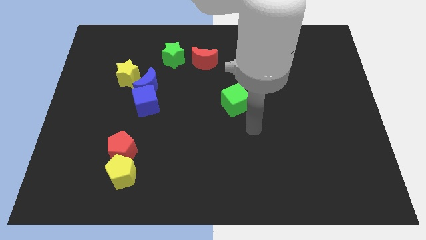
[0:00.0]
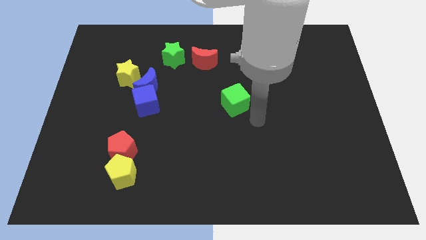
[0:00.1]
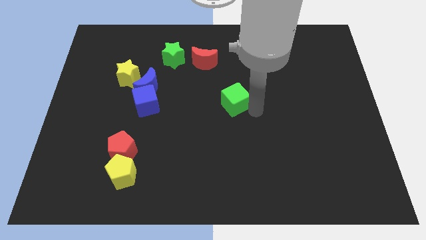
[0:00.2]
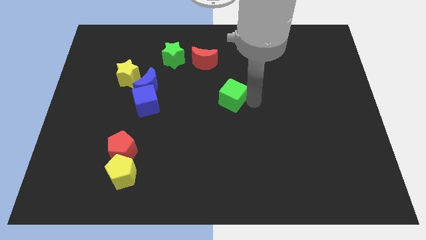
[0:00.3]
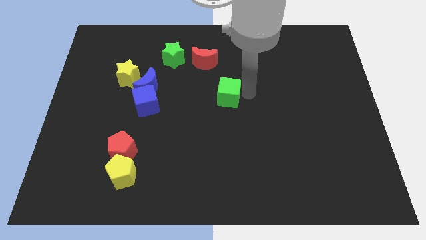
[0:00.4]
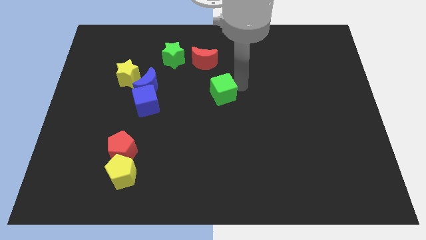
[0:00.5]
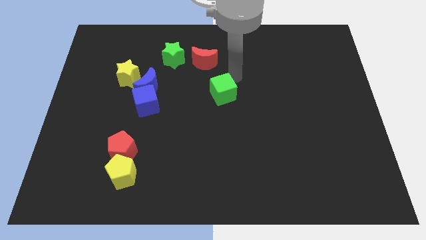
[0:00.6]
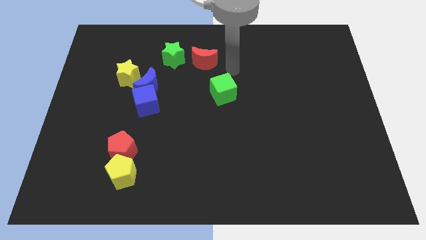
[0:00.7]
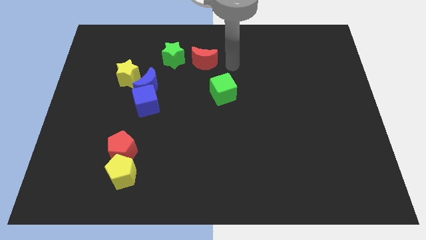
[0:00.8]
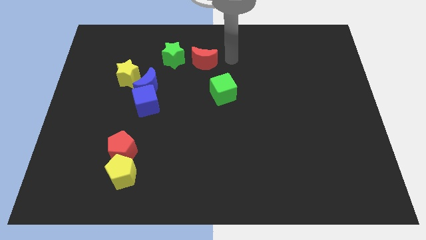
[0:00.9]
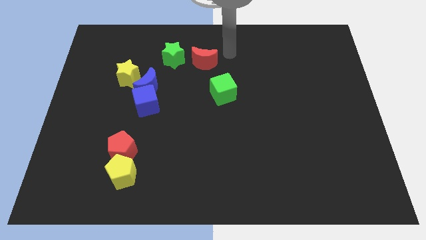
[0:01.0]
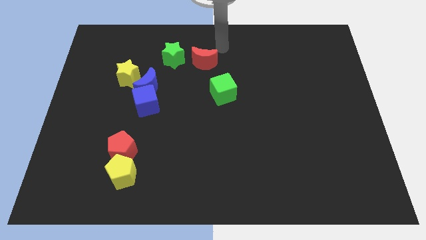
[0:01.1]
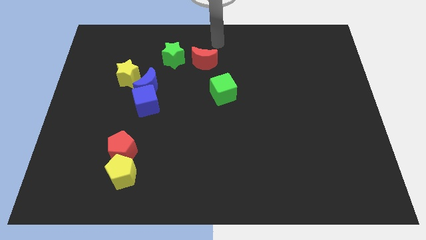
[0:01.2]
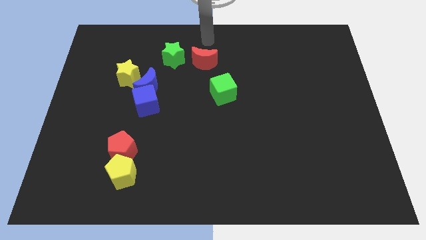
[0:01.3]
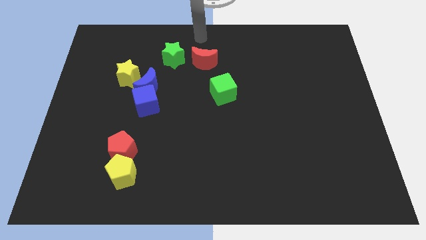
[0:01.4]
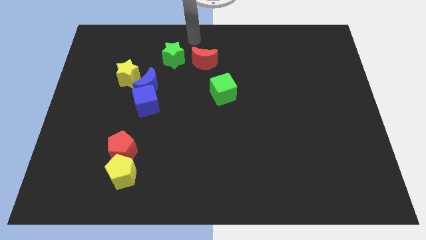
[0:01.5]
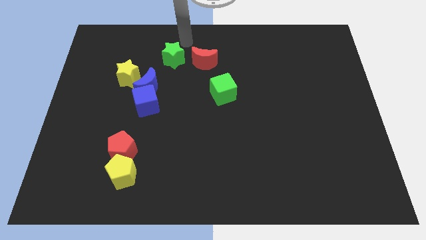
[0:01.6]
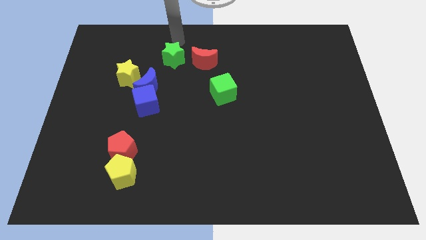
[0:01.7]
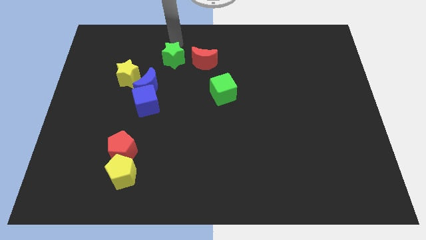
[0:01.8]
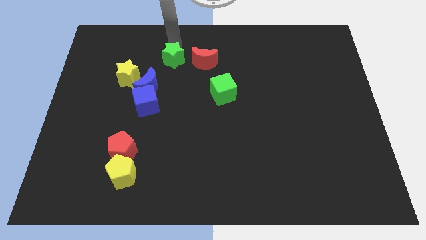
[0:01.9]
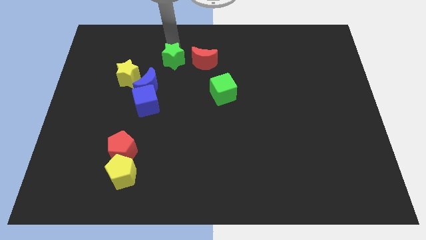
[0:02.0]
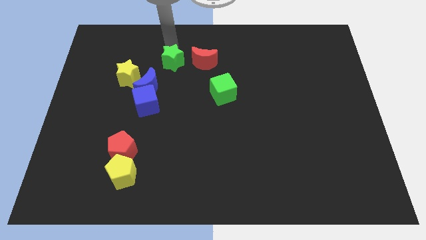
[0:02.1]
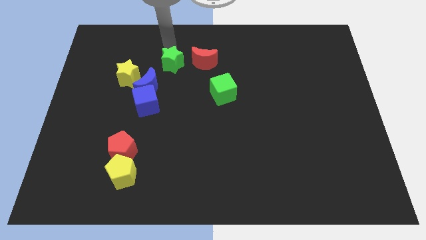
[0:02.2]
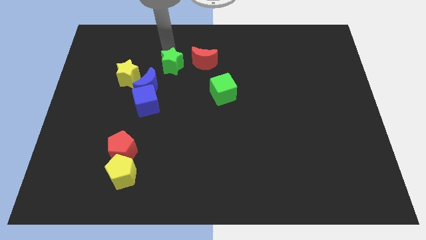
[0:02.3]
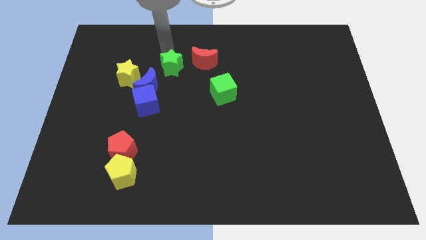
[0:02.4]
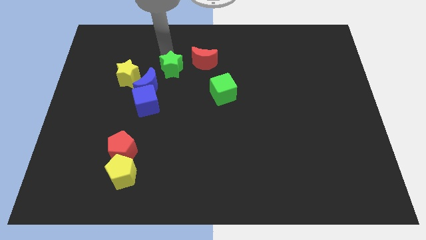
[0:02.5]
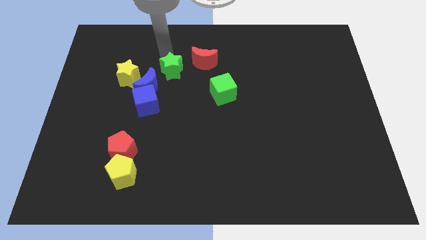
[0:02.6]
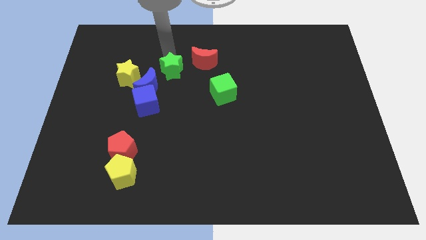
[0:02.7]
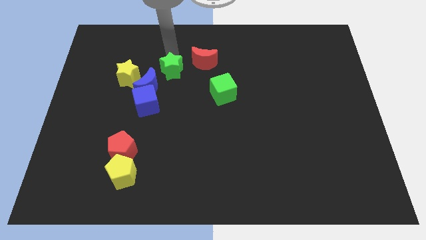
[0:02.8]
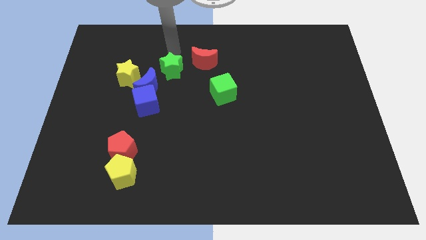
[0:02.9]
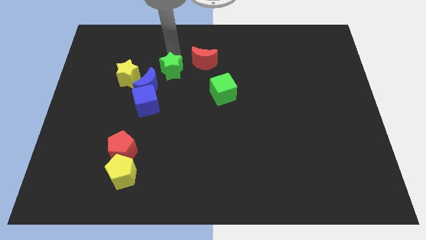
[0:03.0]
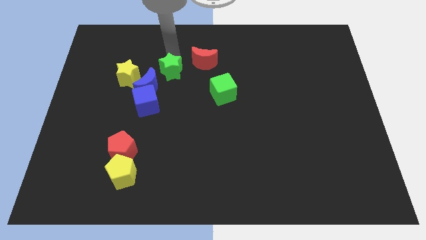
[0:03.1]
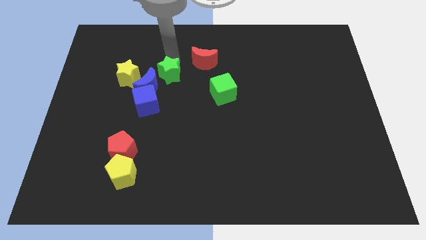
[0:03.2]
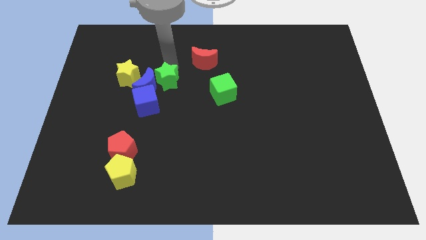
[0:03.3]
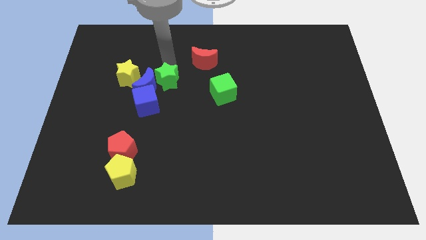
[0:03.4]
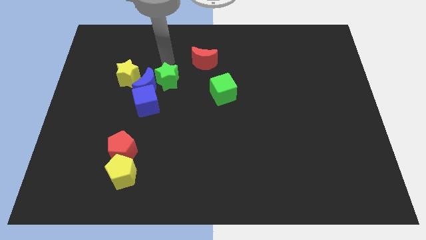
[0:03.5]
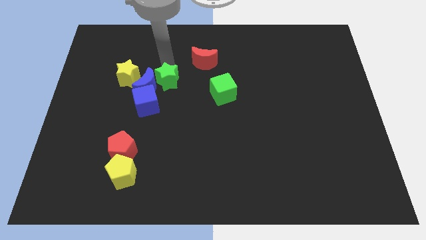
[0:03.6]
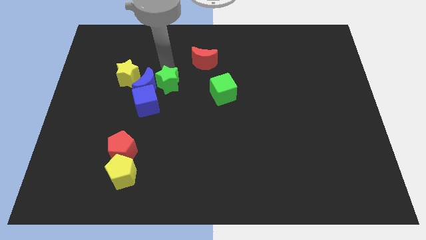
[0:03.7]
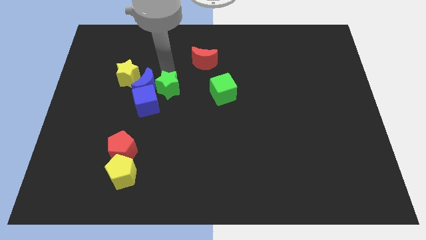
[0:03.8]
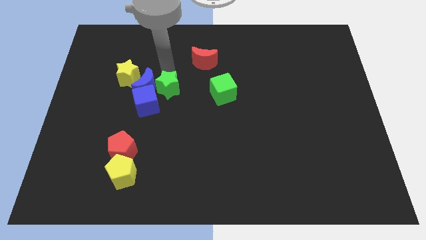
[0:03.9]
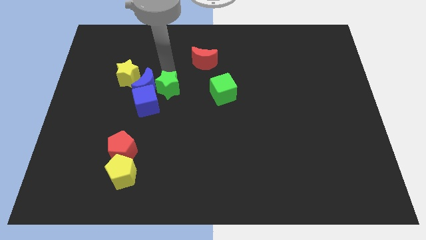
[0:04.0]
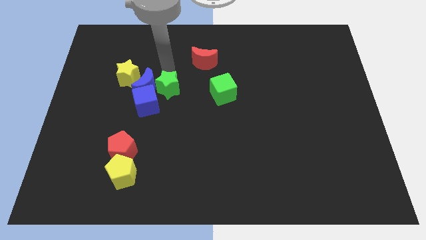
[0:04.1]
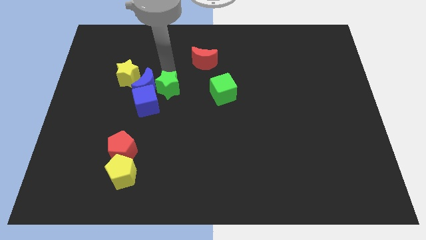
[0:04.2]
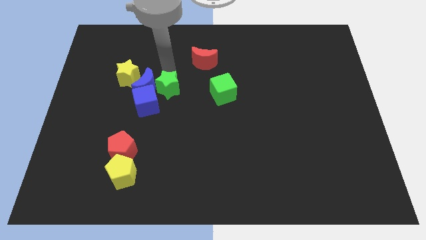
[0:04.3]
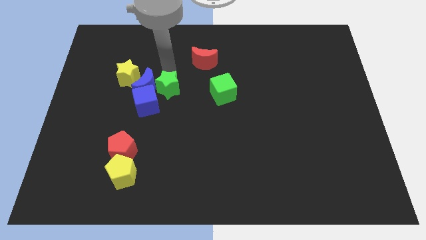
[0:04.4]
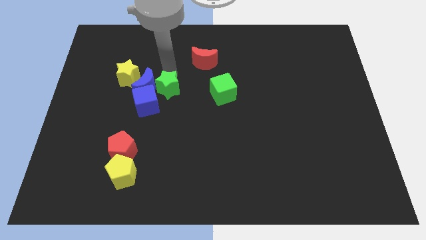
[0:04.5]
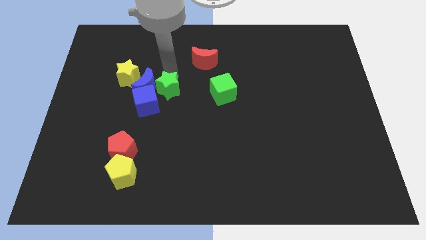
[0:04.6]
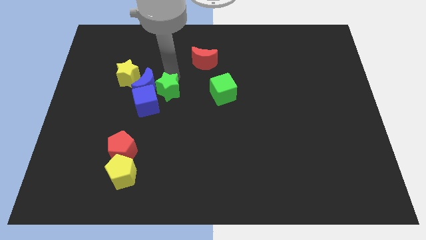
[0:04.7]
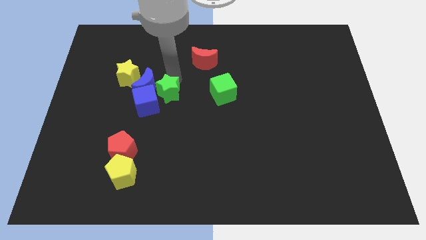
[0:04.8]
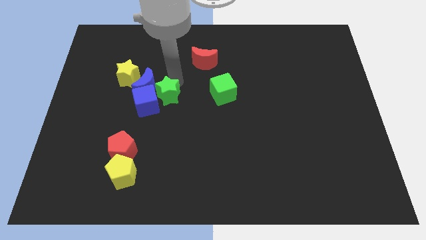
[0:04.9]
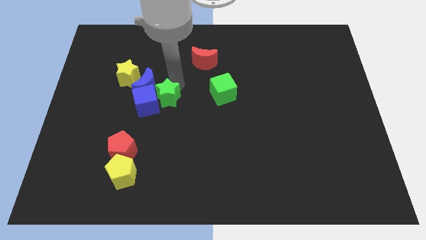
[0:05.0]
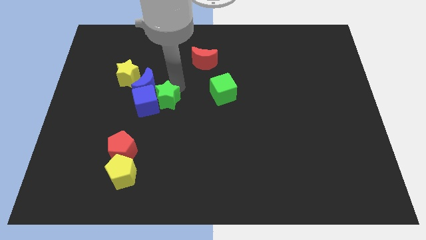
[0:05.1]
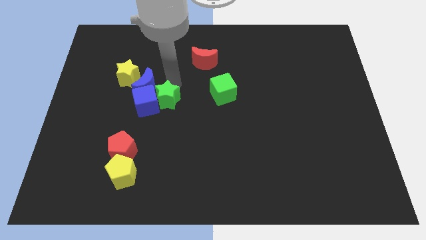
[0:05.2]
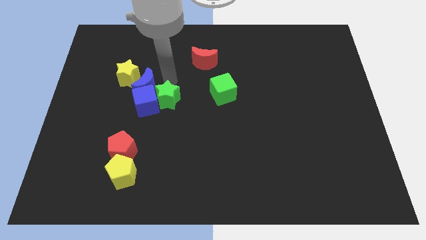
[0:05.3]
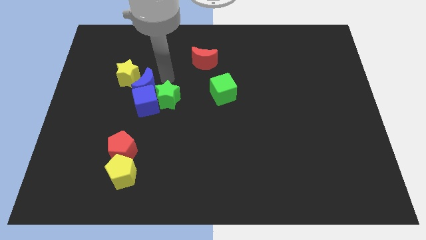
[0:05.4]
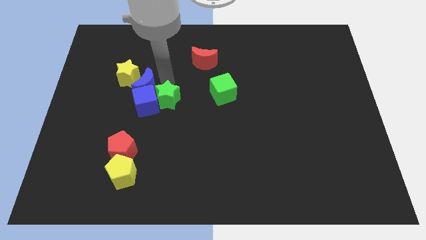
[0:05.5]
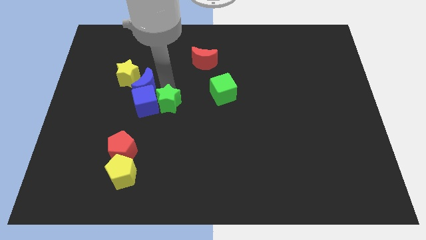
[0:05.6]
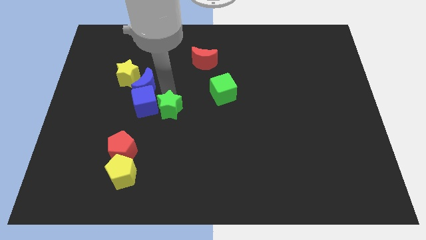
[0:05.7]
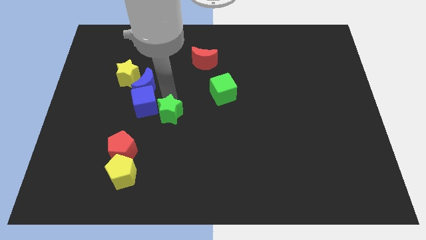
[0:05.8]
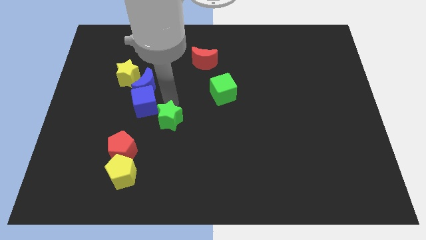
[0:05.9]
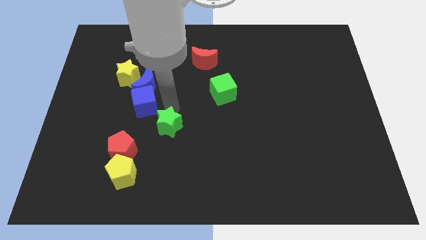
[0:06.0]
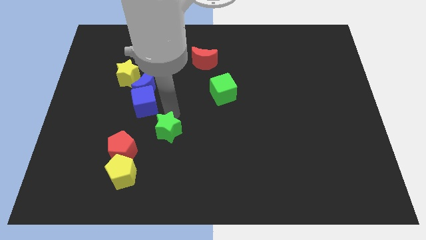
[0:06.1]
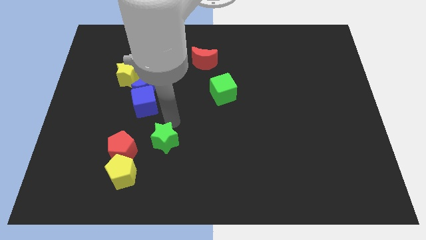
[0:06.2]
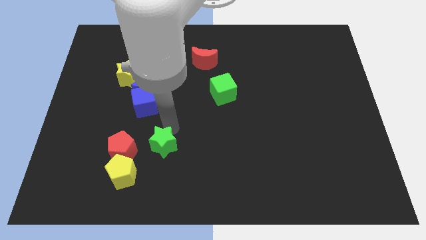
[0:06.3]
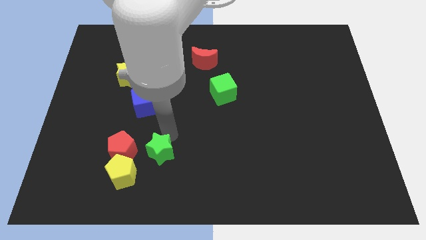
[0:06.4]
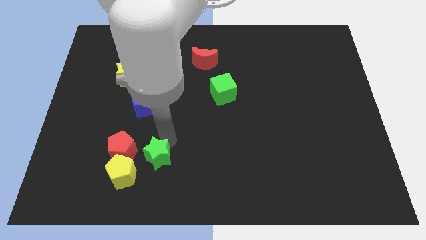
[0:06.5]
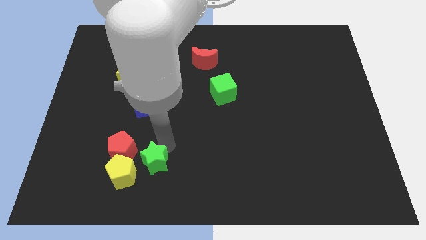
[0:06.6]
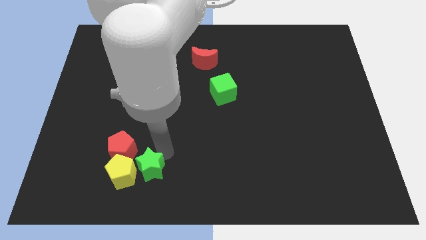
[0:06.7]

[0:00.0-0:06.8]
move the green star next to the yellow pentagon

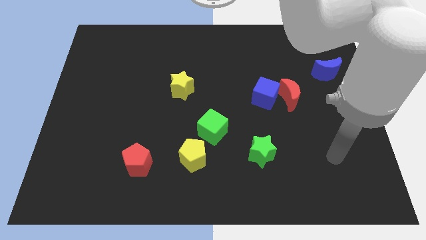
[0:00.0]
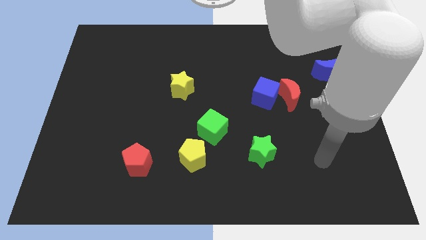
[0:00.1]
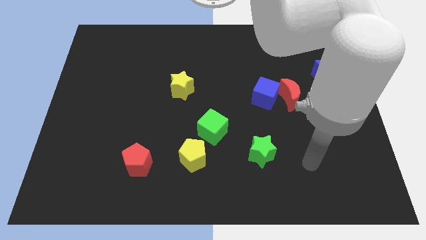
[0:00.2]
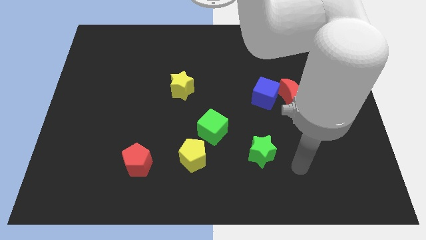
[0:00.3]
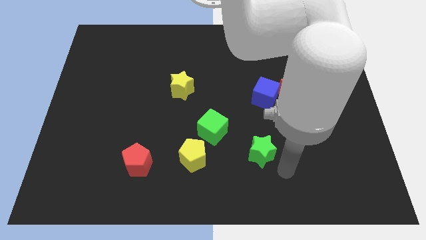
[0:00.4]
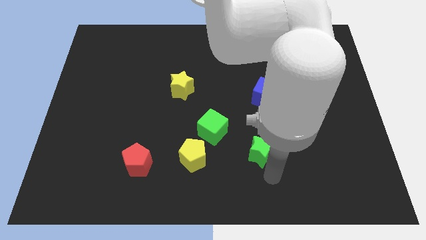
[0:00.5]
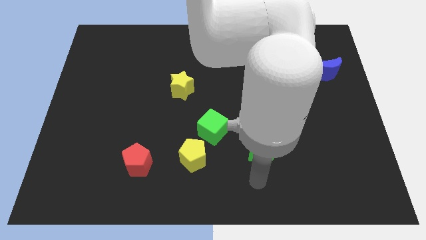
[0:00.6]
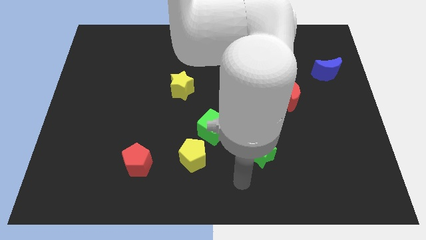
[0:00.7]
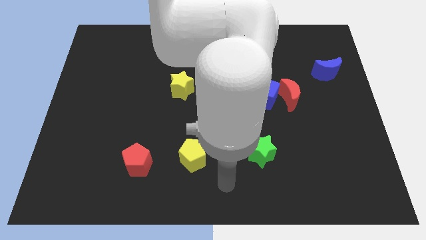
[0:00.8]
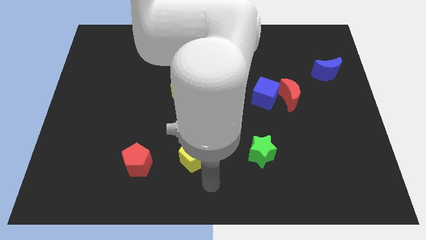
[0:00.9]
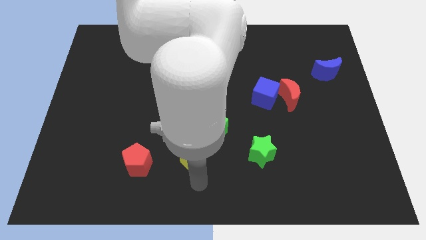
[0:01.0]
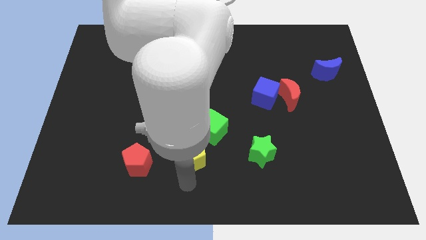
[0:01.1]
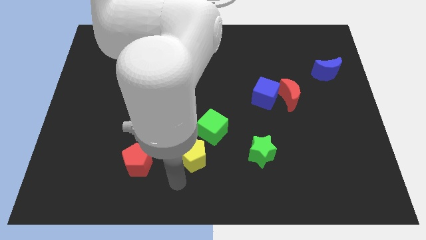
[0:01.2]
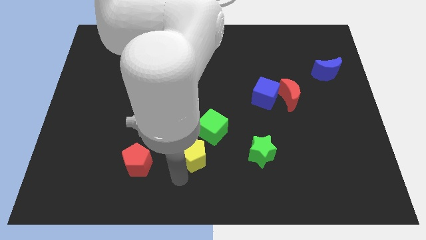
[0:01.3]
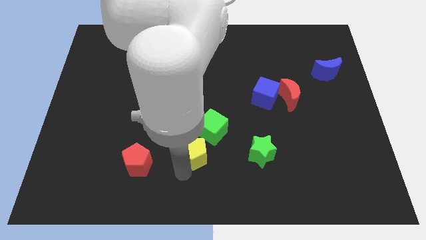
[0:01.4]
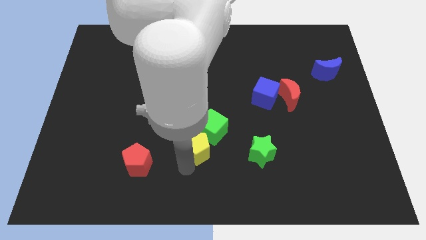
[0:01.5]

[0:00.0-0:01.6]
move the yellow pentagon to the green cube
